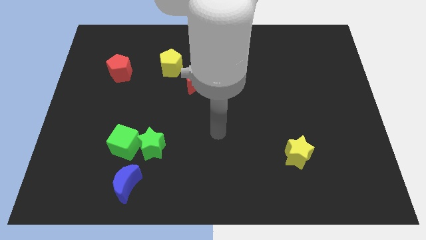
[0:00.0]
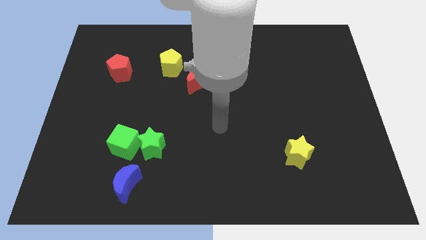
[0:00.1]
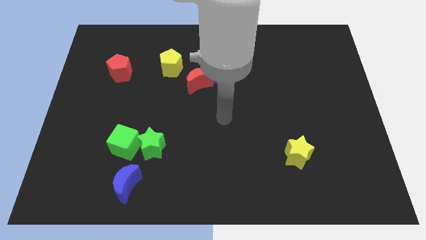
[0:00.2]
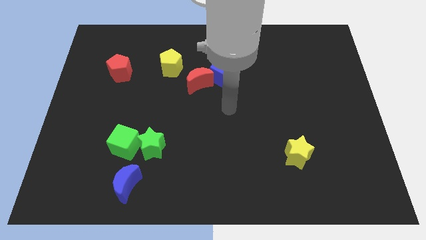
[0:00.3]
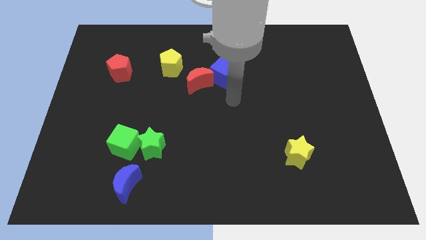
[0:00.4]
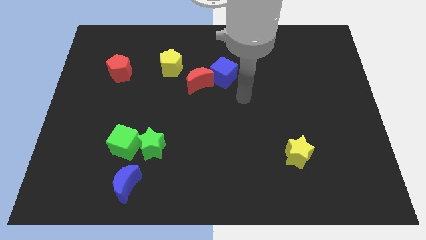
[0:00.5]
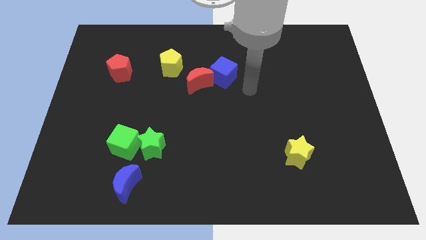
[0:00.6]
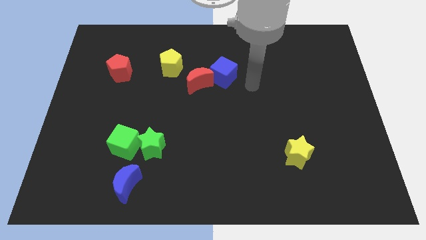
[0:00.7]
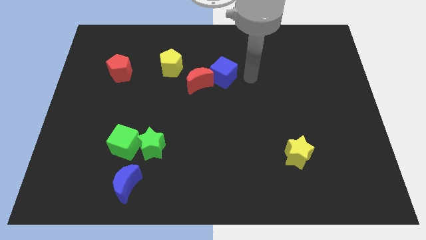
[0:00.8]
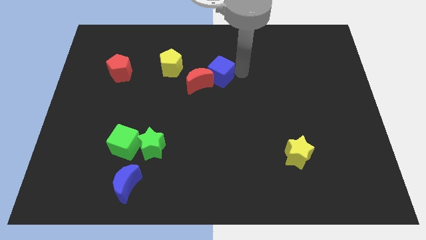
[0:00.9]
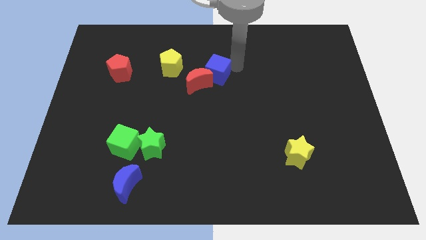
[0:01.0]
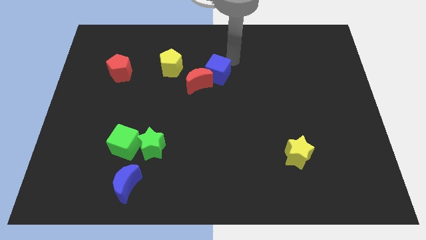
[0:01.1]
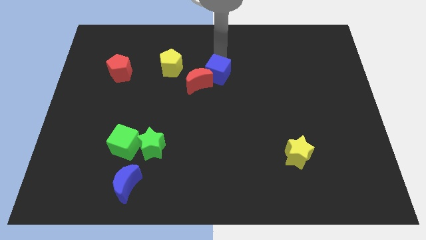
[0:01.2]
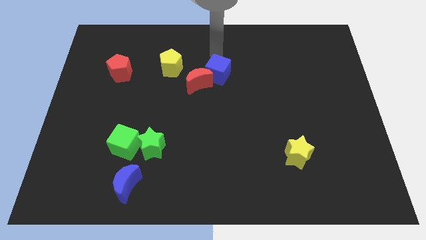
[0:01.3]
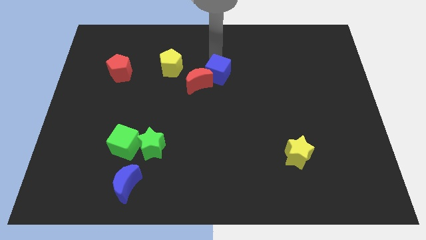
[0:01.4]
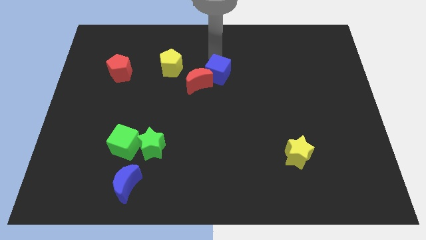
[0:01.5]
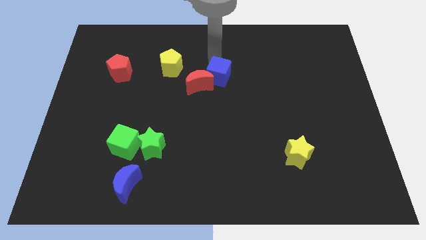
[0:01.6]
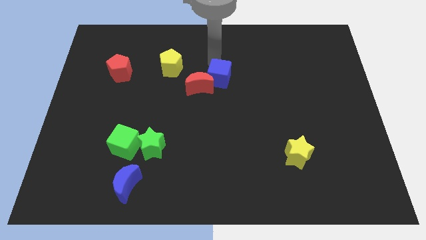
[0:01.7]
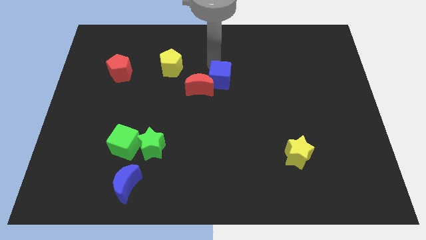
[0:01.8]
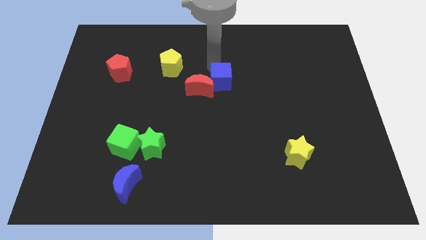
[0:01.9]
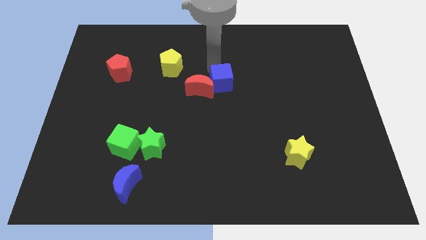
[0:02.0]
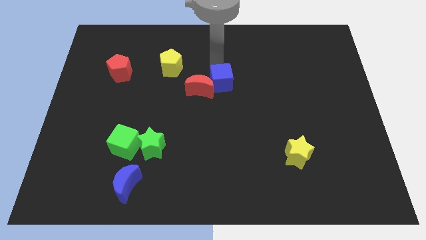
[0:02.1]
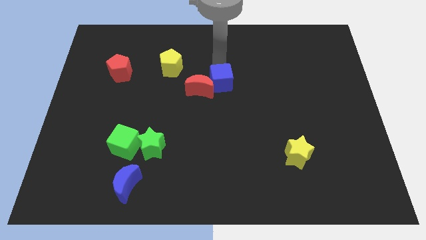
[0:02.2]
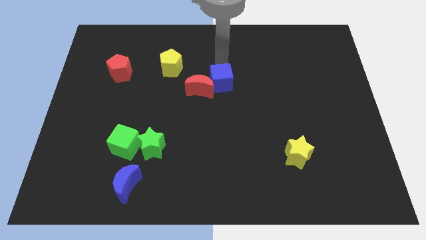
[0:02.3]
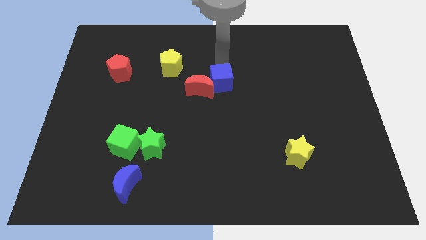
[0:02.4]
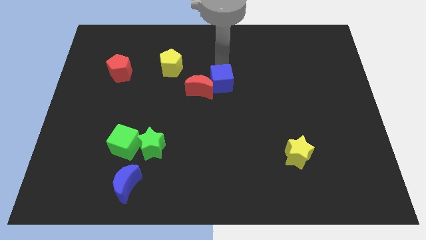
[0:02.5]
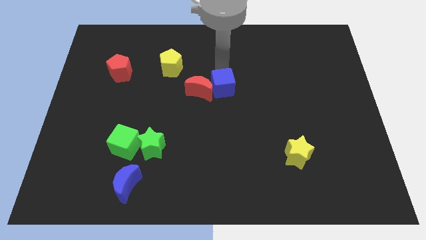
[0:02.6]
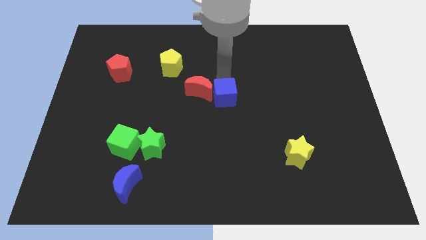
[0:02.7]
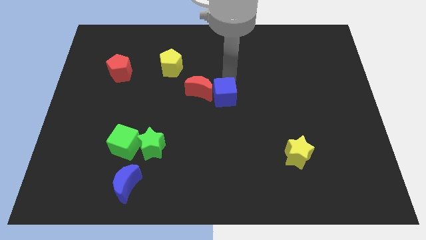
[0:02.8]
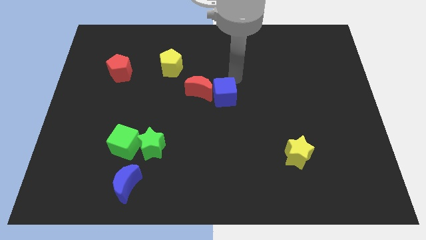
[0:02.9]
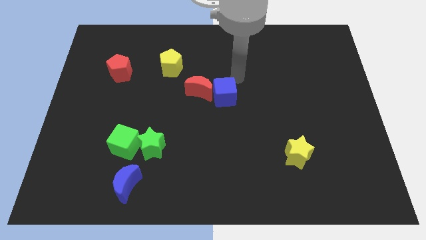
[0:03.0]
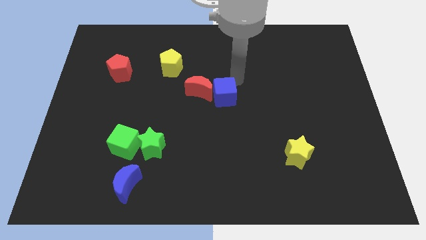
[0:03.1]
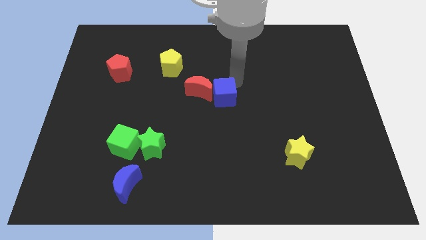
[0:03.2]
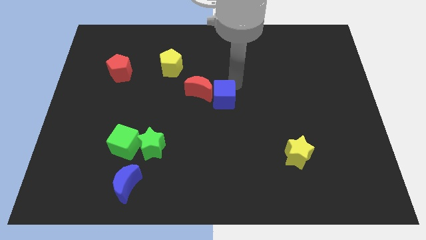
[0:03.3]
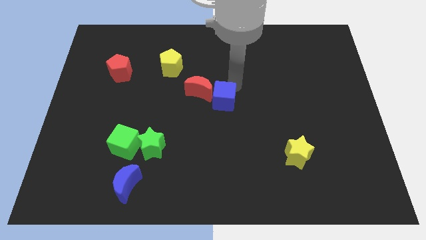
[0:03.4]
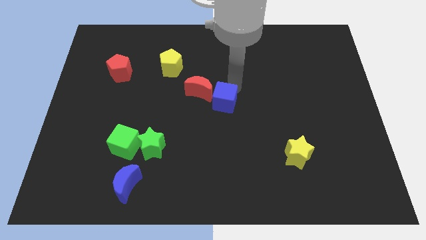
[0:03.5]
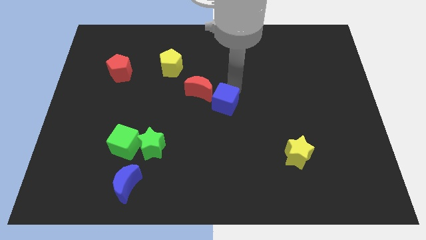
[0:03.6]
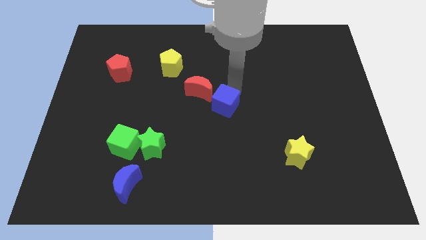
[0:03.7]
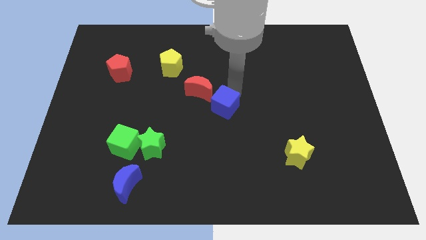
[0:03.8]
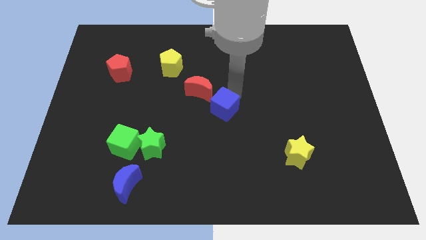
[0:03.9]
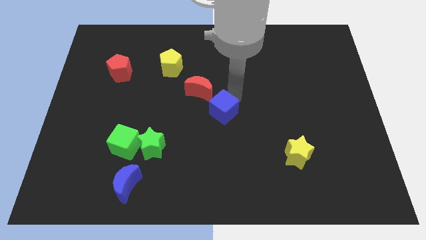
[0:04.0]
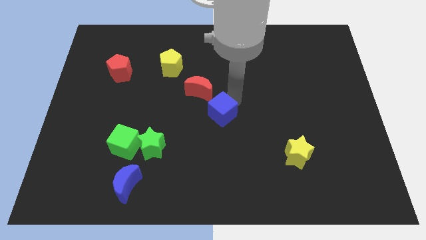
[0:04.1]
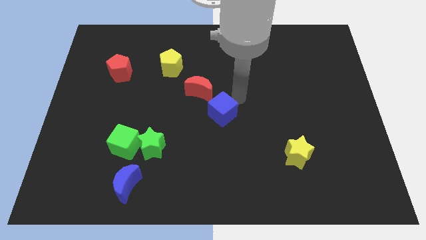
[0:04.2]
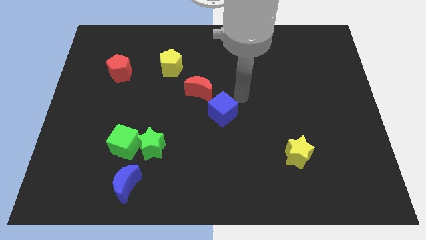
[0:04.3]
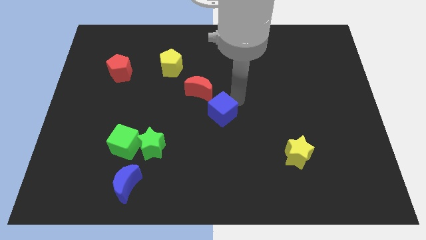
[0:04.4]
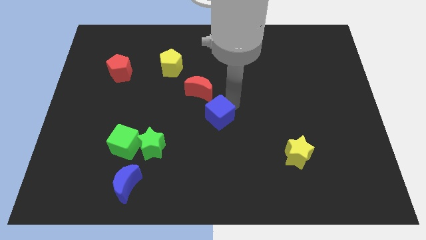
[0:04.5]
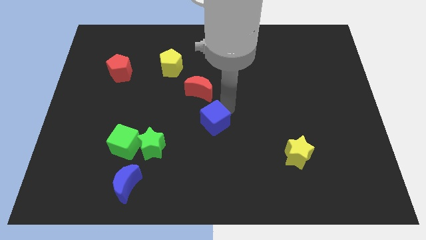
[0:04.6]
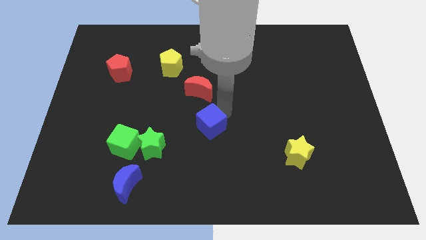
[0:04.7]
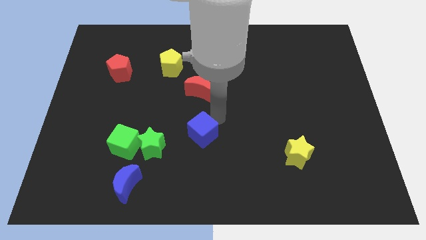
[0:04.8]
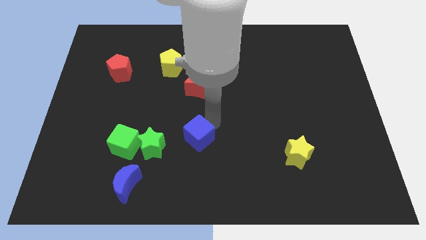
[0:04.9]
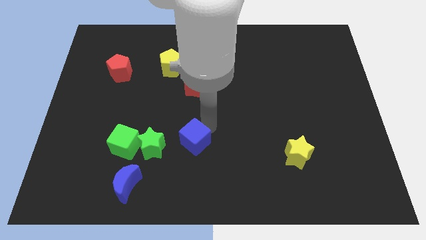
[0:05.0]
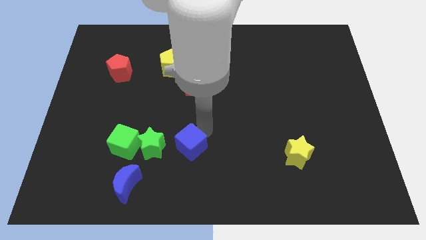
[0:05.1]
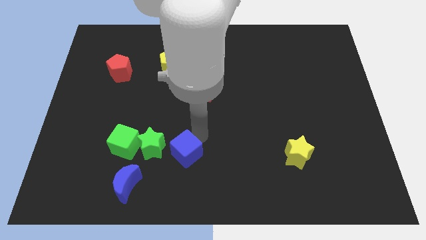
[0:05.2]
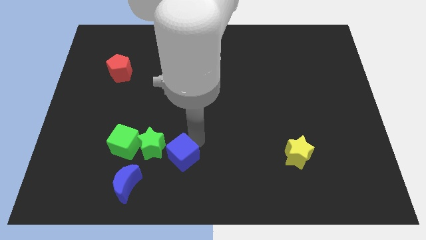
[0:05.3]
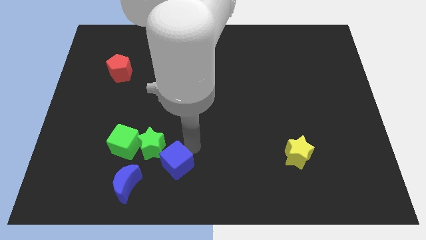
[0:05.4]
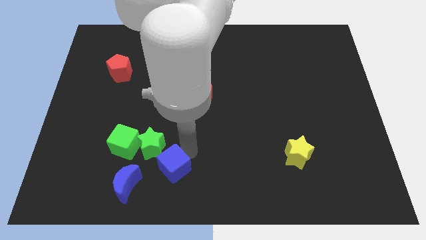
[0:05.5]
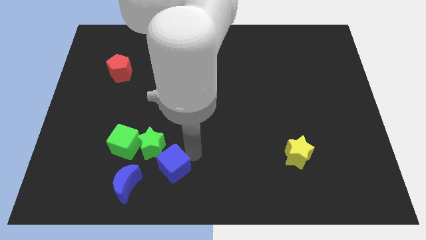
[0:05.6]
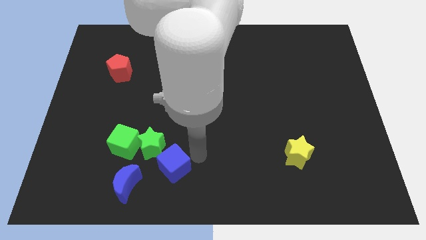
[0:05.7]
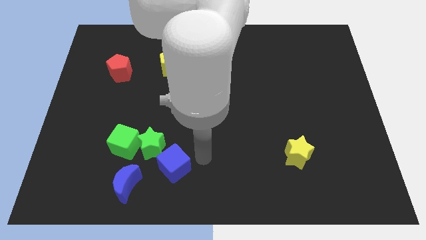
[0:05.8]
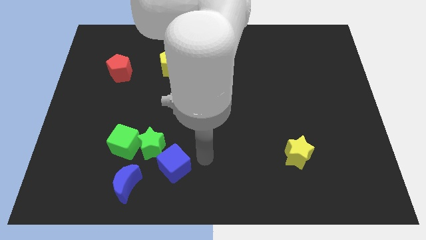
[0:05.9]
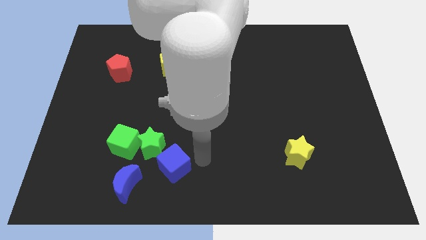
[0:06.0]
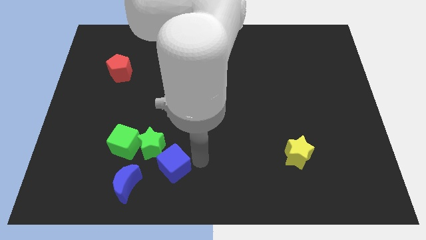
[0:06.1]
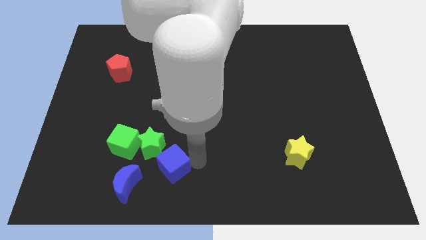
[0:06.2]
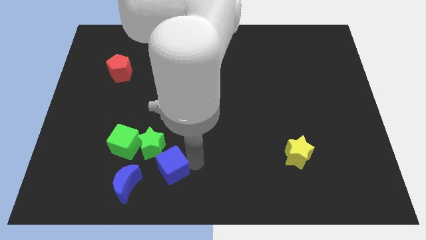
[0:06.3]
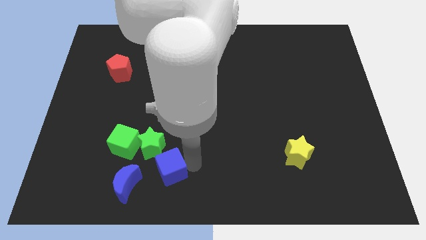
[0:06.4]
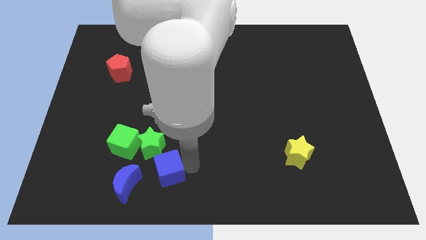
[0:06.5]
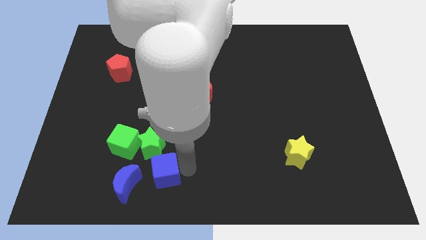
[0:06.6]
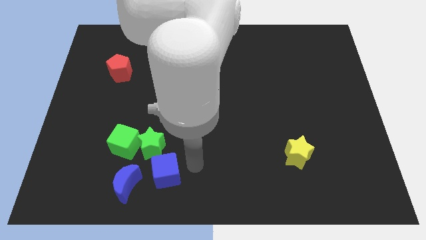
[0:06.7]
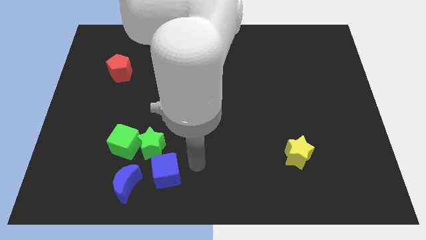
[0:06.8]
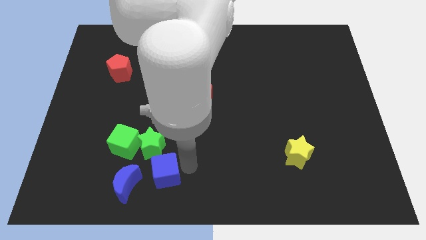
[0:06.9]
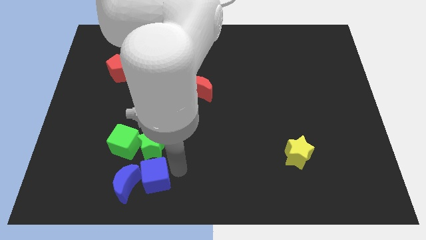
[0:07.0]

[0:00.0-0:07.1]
put the blue cube close to the blue moon

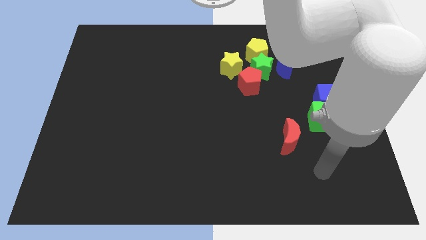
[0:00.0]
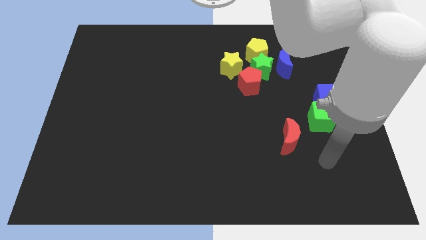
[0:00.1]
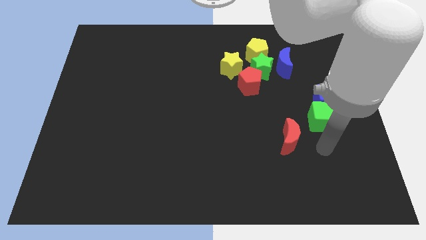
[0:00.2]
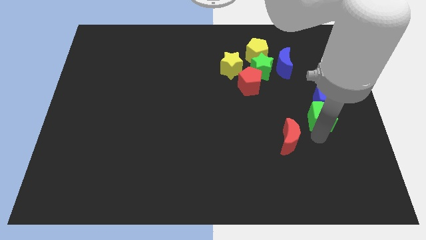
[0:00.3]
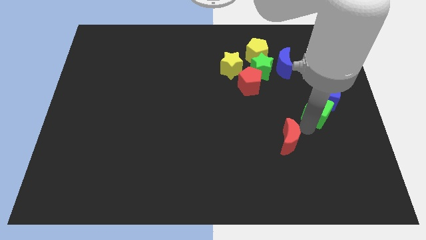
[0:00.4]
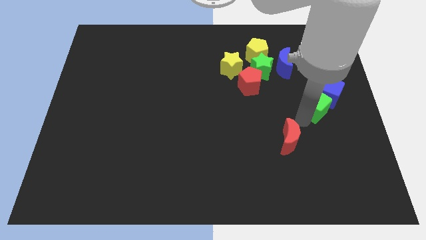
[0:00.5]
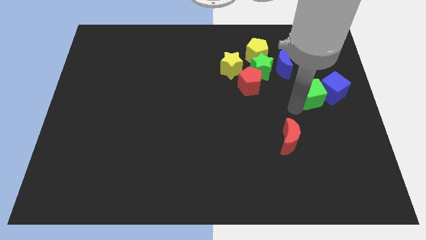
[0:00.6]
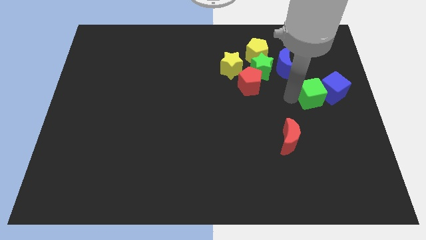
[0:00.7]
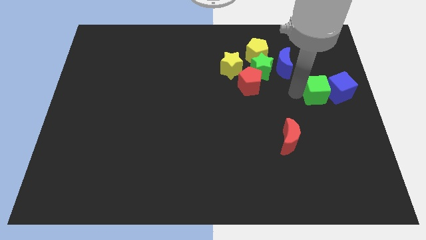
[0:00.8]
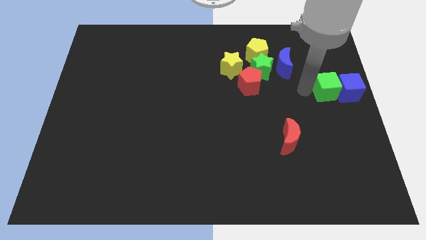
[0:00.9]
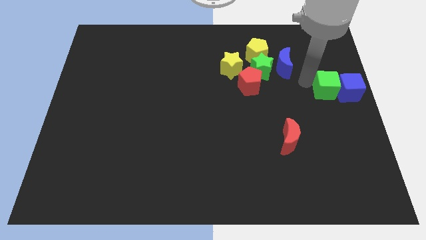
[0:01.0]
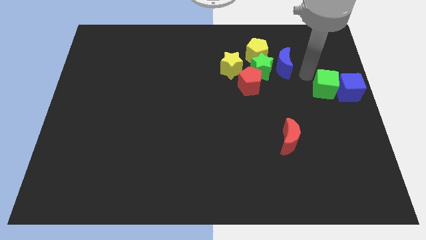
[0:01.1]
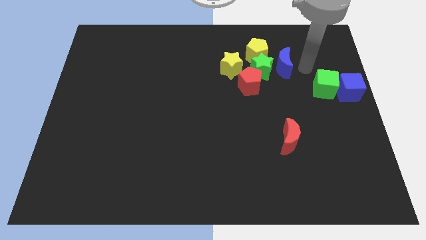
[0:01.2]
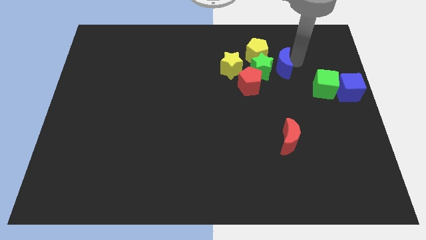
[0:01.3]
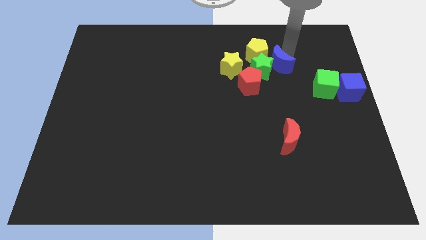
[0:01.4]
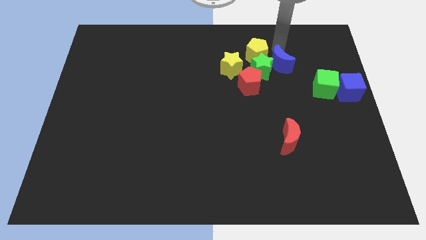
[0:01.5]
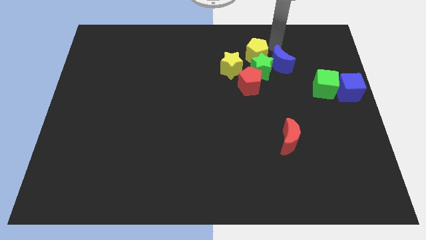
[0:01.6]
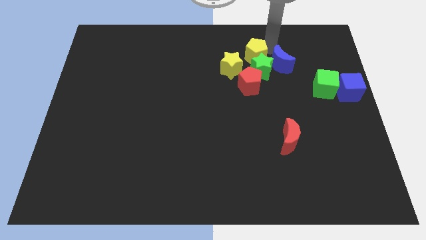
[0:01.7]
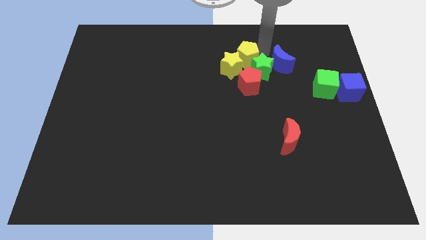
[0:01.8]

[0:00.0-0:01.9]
move the yellow pentagon next to the yellow star
